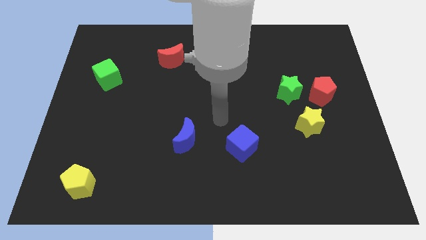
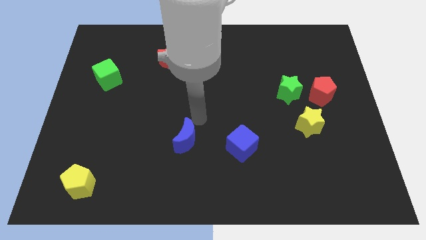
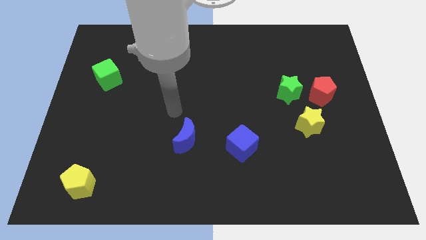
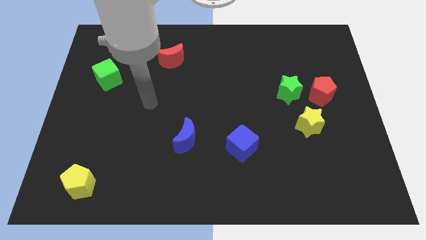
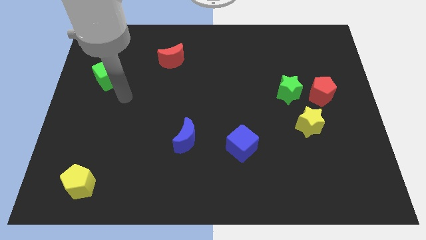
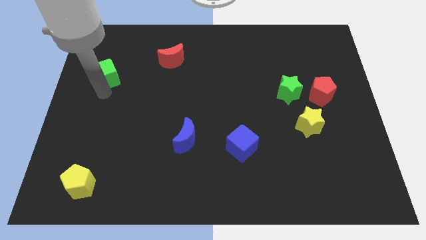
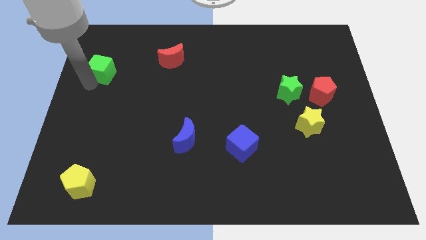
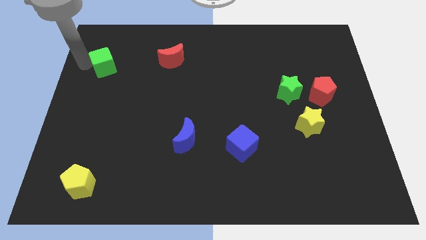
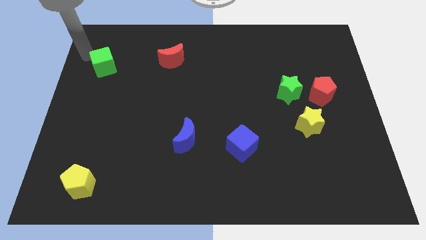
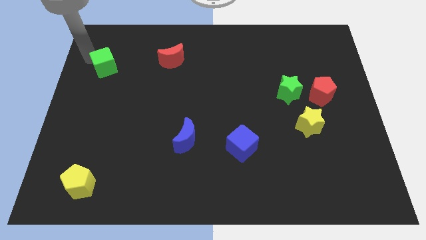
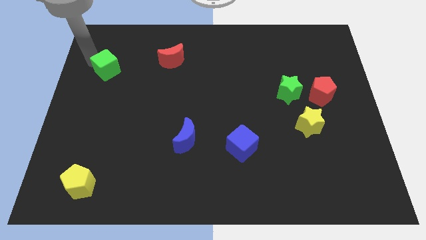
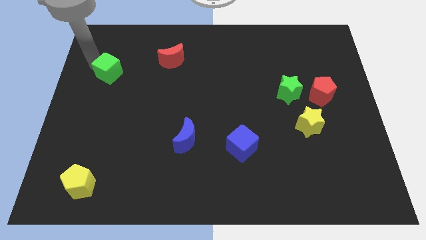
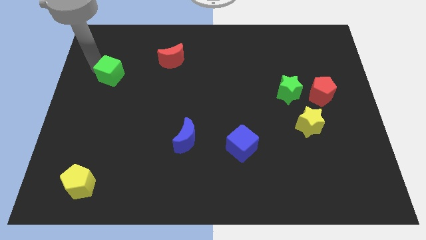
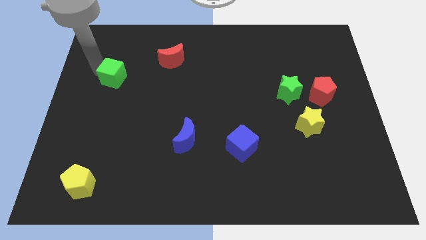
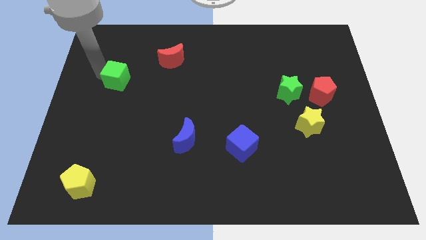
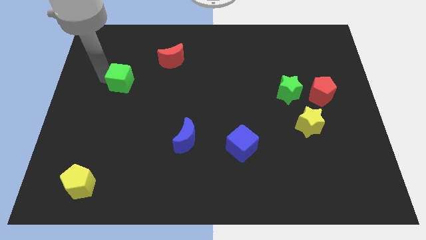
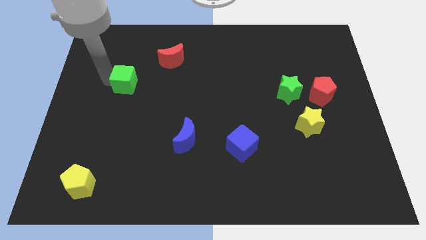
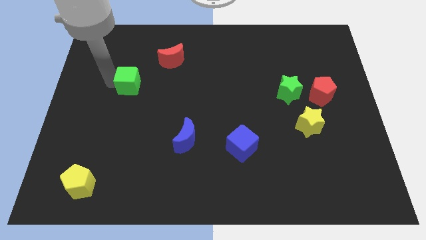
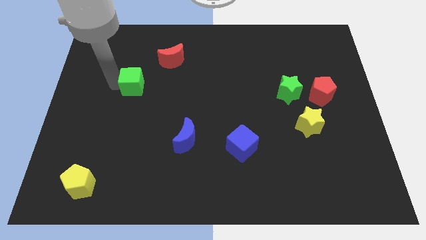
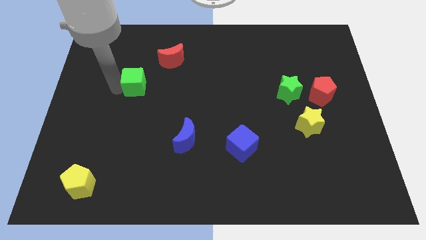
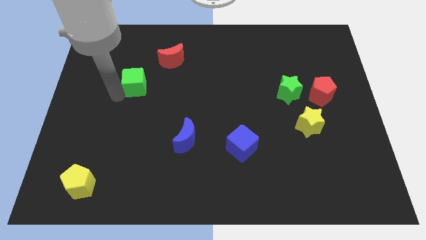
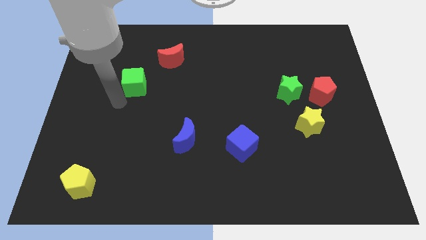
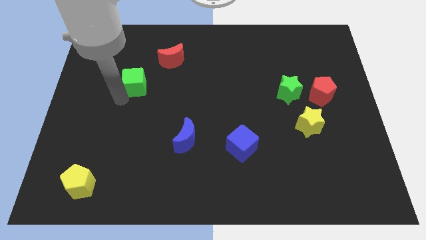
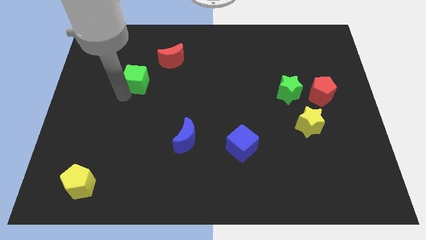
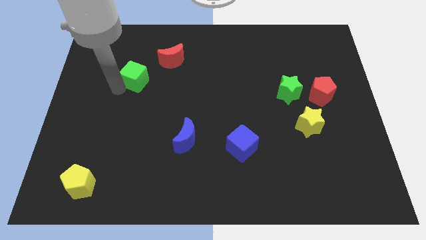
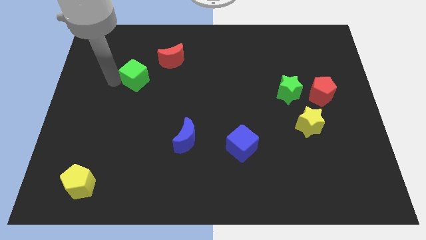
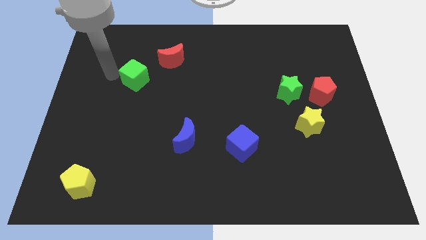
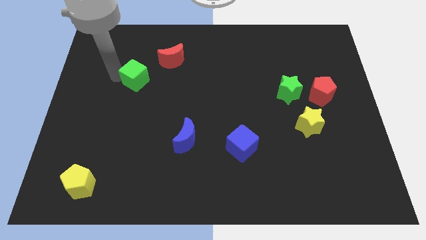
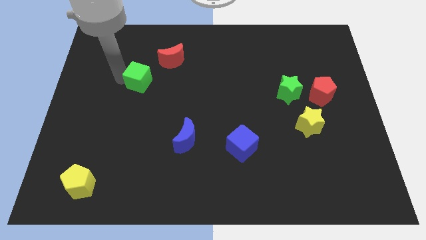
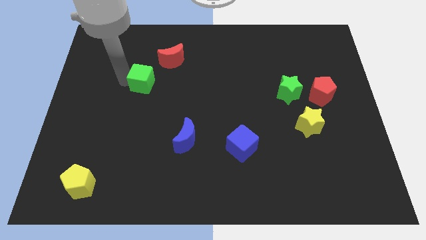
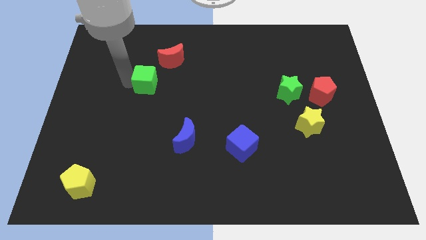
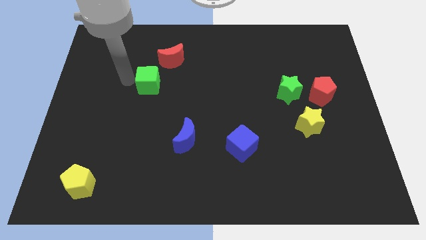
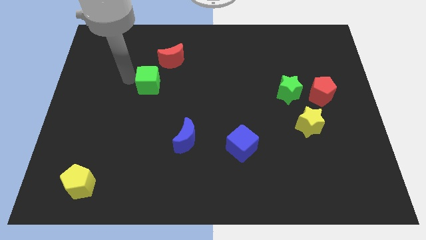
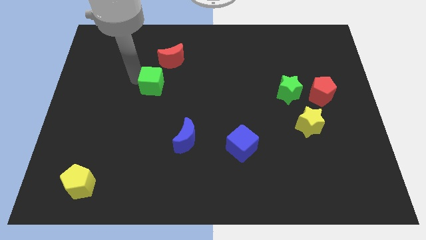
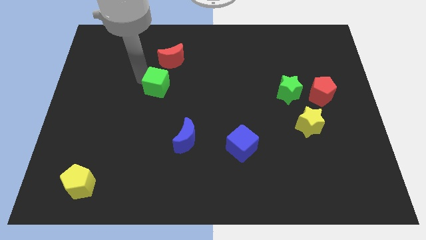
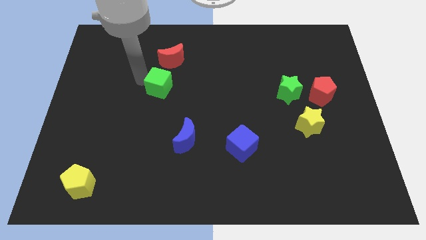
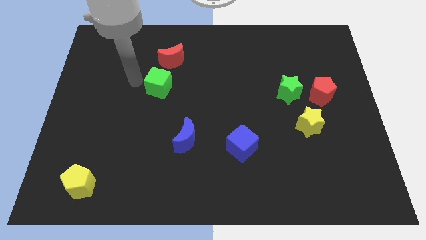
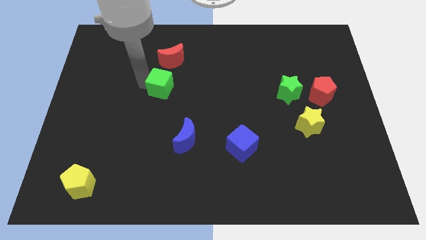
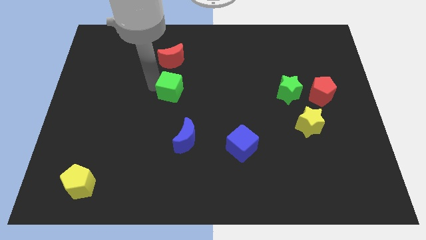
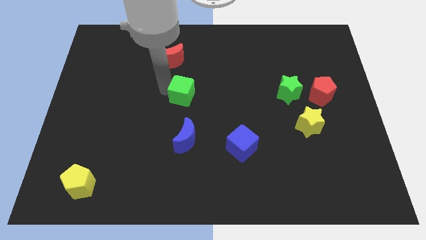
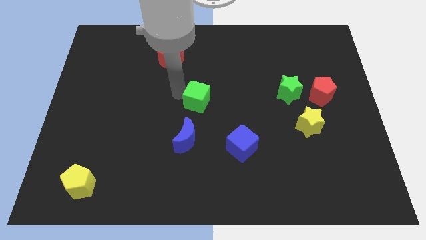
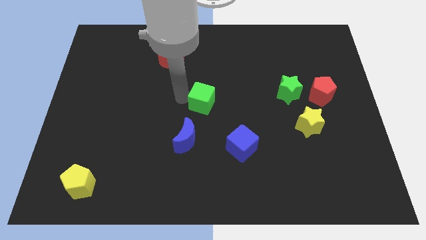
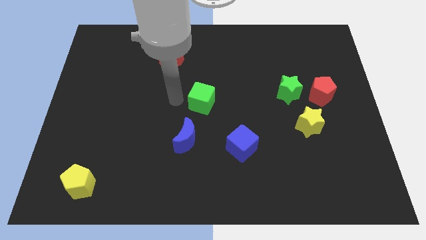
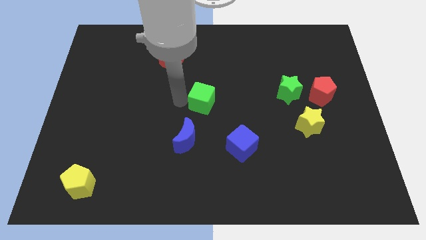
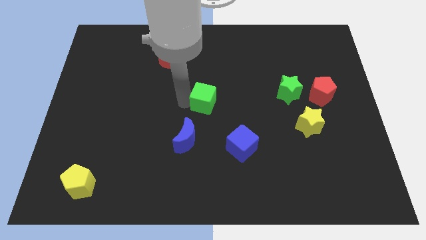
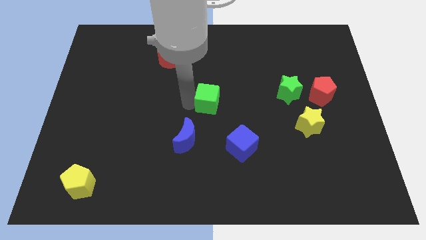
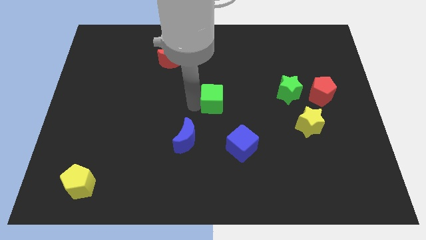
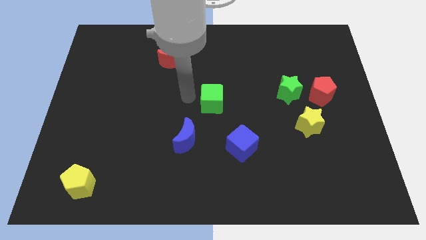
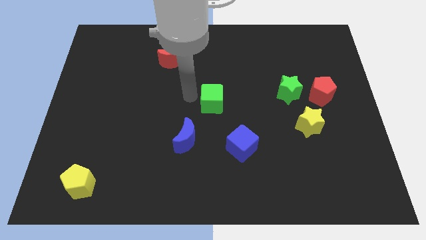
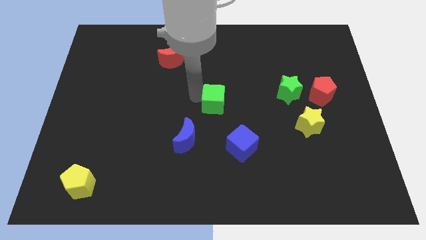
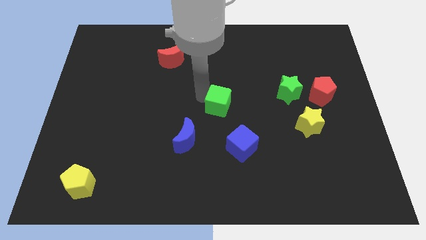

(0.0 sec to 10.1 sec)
push the green cube to the top of the blue cube

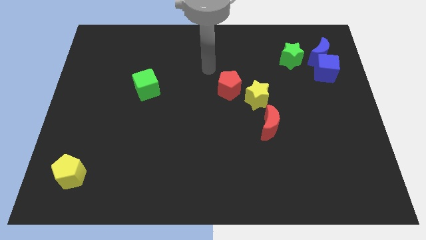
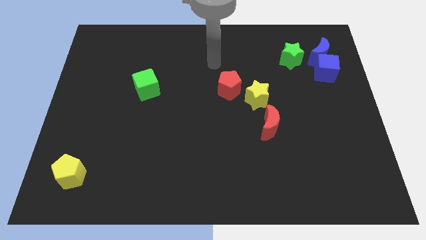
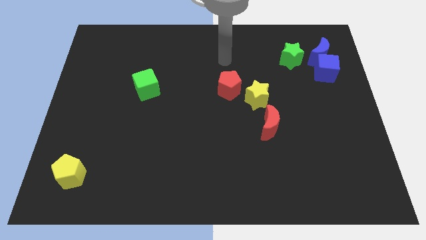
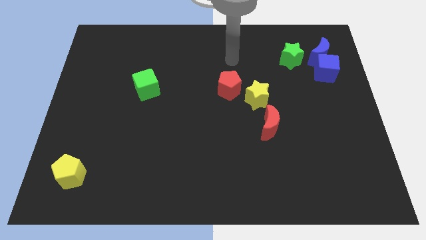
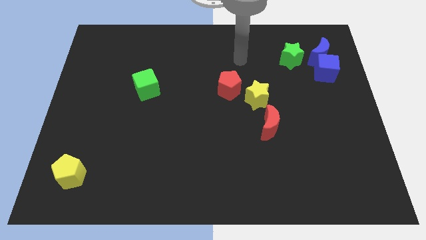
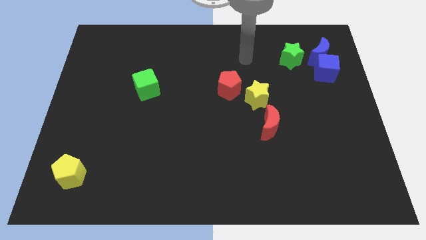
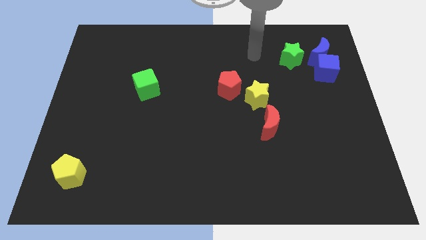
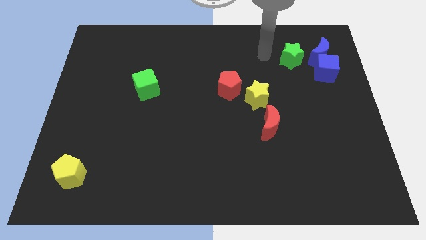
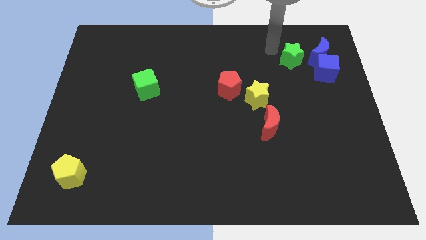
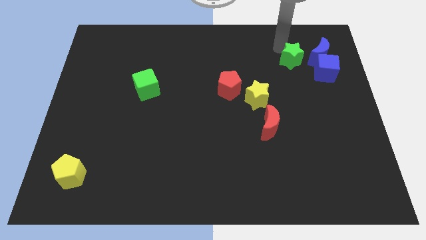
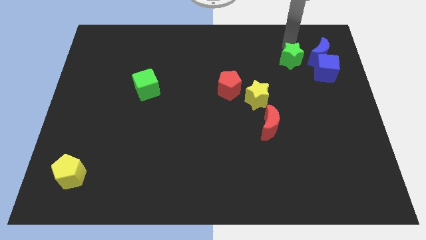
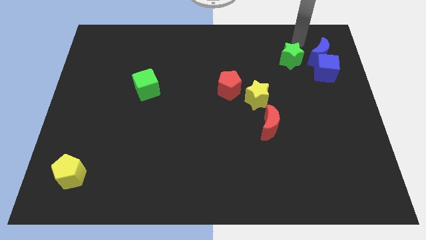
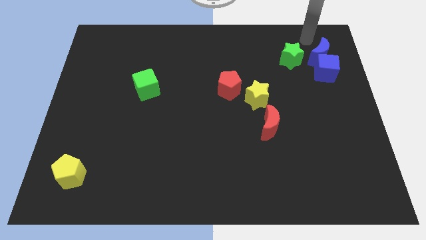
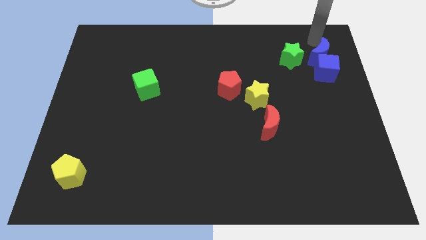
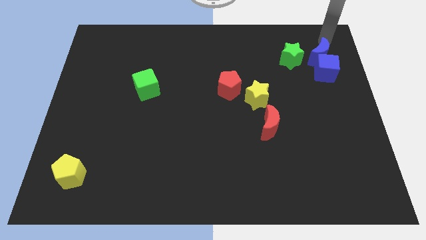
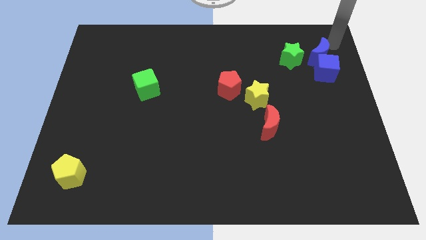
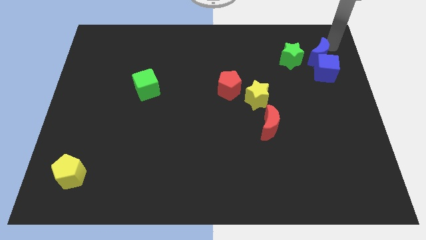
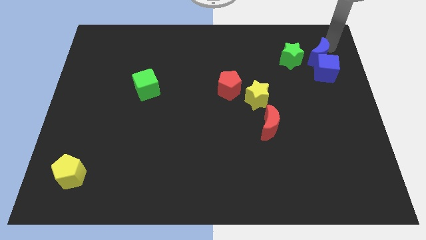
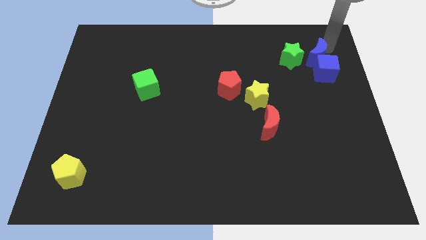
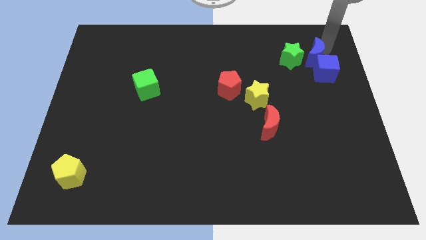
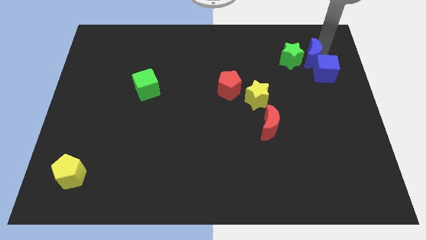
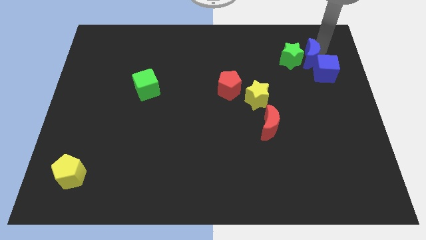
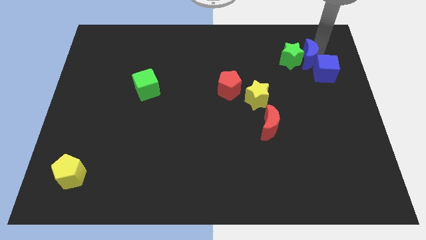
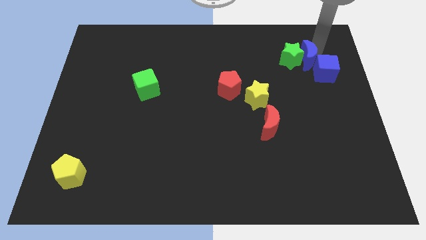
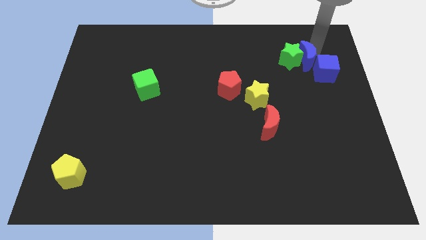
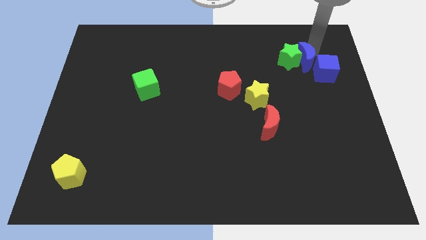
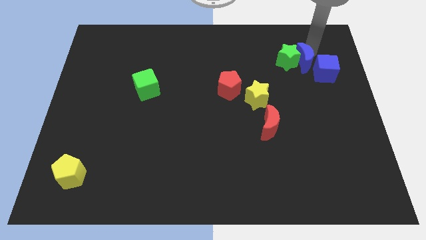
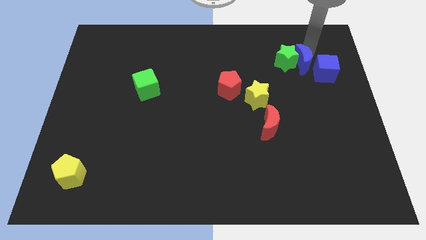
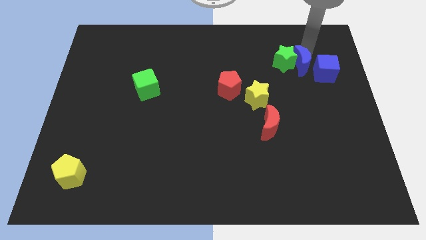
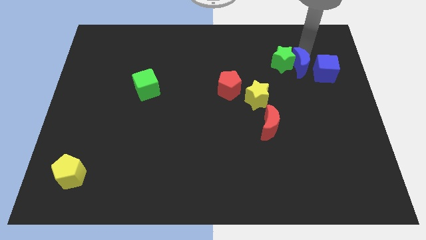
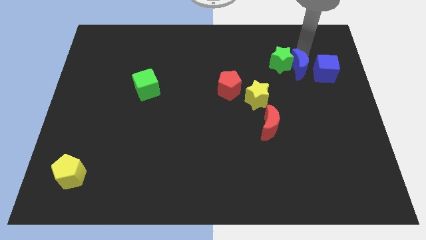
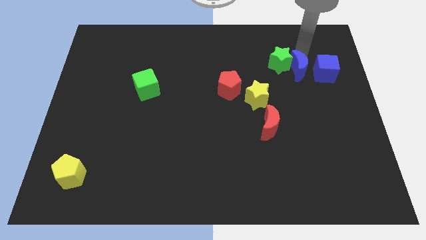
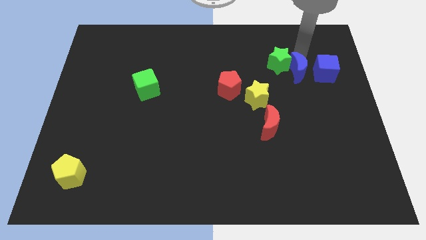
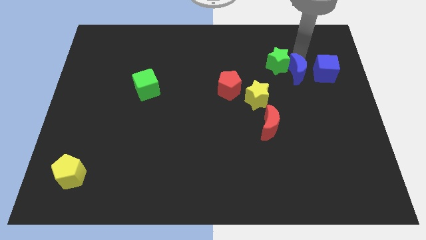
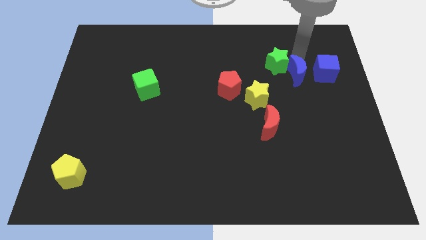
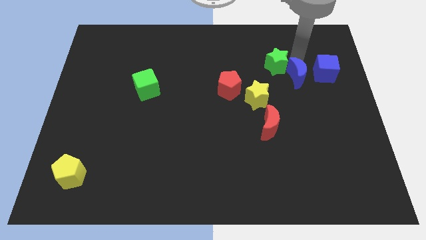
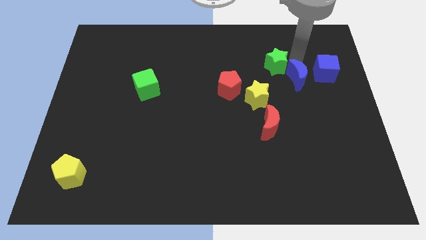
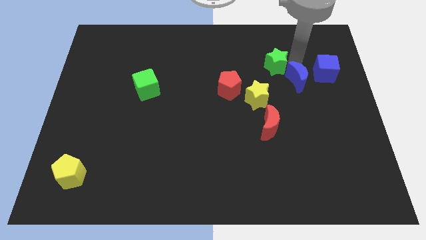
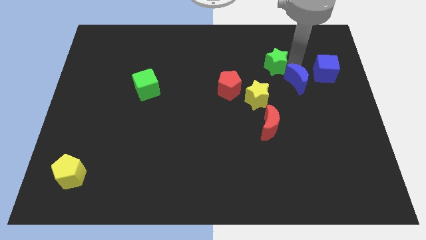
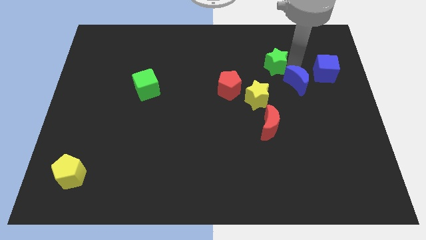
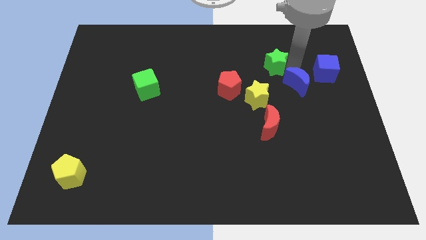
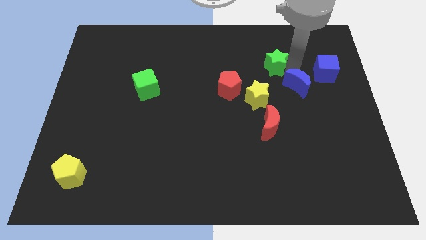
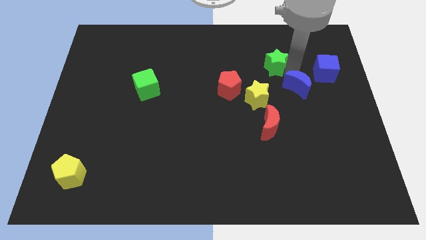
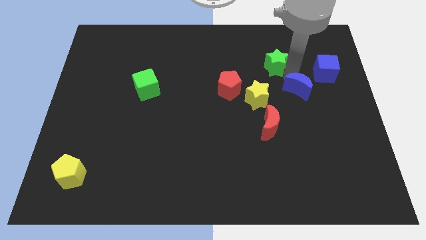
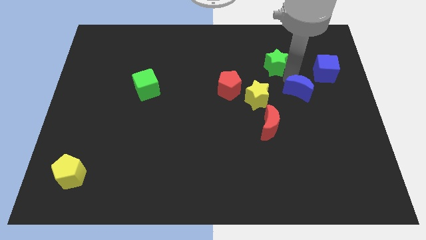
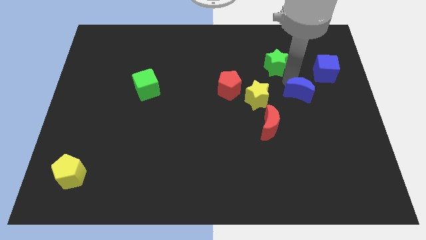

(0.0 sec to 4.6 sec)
move the blue moon to the top right side of the red moon
